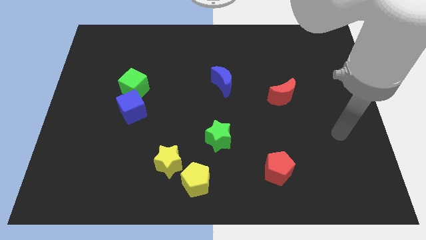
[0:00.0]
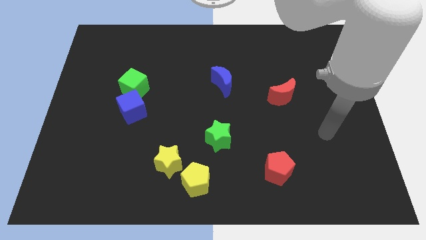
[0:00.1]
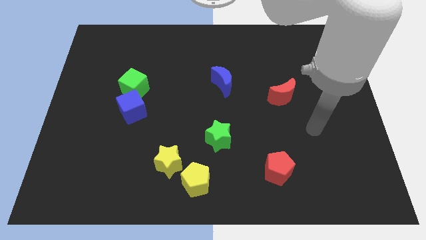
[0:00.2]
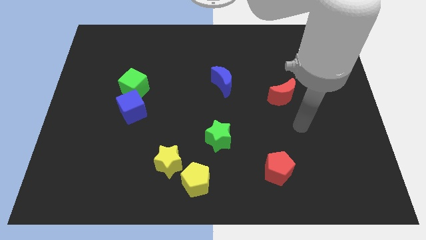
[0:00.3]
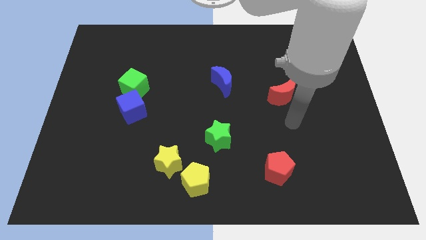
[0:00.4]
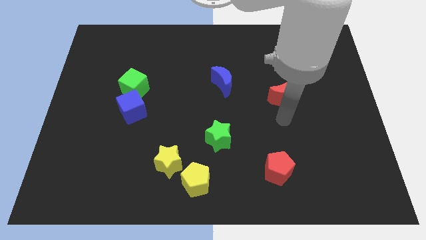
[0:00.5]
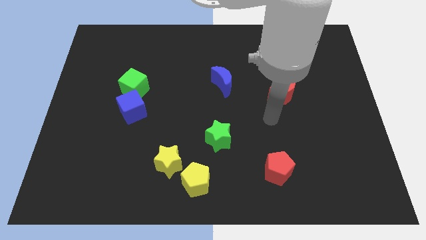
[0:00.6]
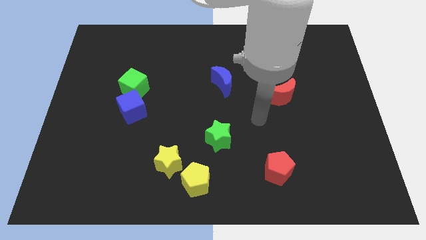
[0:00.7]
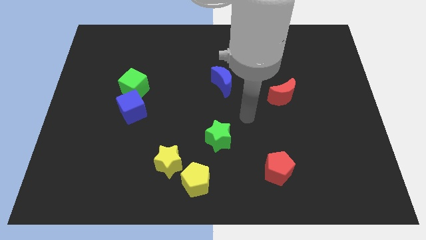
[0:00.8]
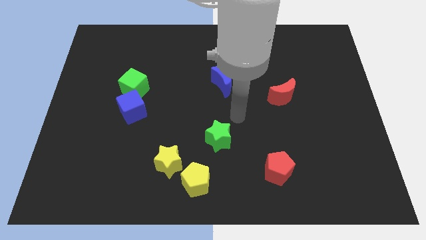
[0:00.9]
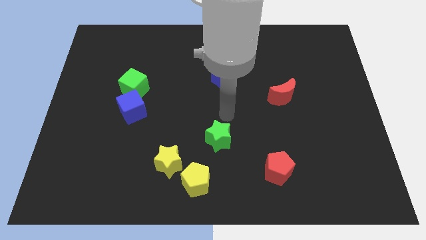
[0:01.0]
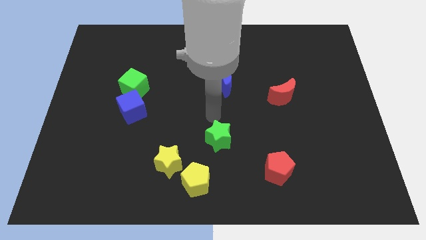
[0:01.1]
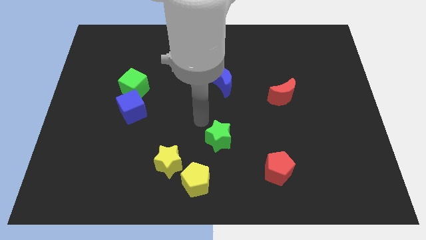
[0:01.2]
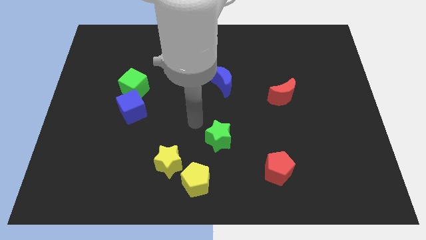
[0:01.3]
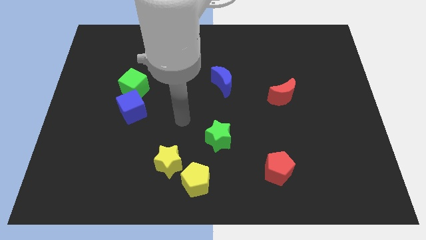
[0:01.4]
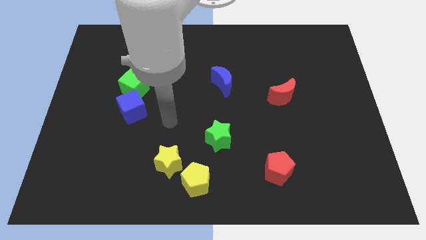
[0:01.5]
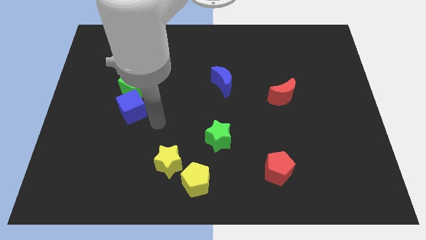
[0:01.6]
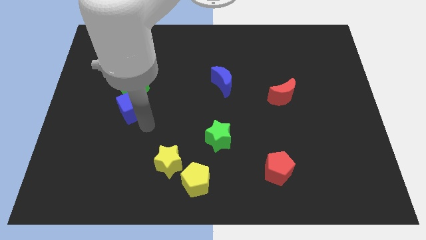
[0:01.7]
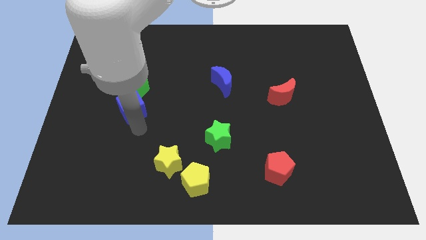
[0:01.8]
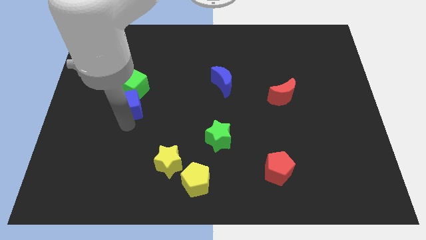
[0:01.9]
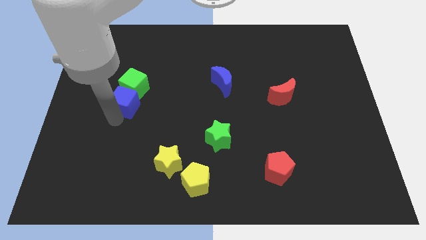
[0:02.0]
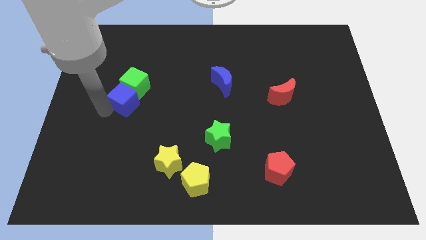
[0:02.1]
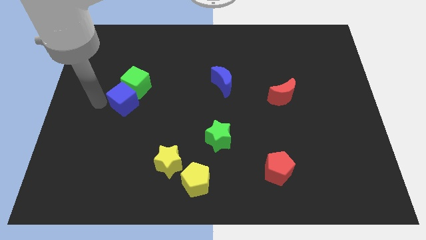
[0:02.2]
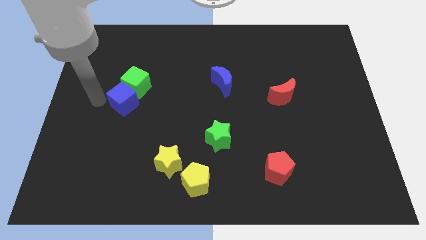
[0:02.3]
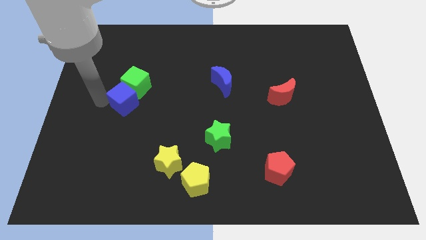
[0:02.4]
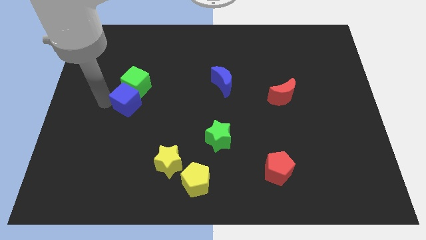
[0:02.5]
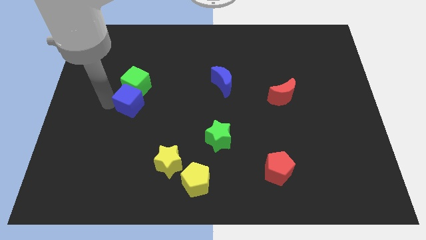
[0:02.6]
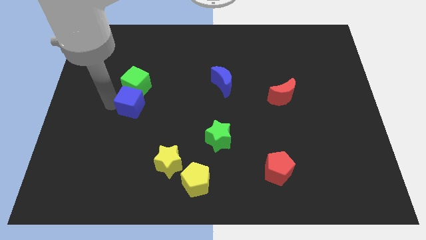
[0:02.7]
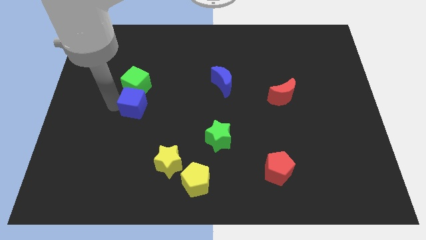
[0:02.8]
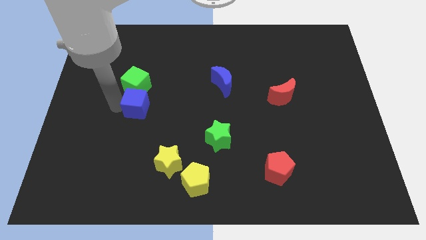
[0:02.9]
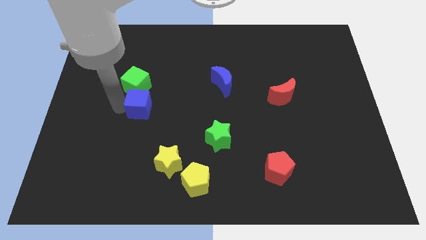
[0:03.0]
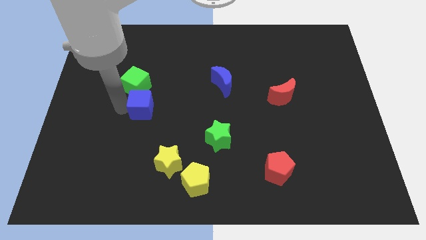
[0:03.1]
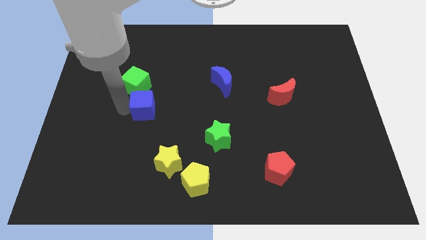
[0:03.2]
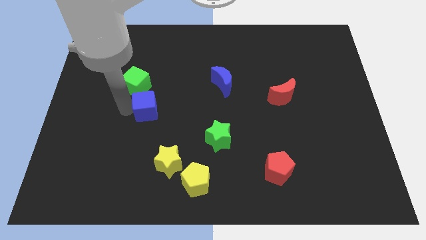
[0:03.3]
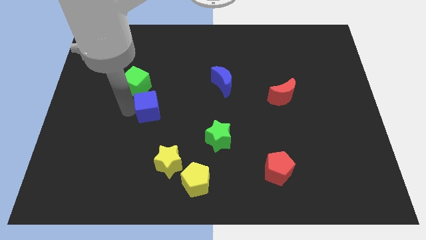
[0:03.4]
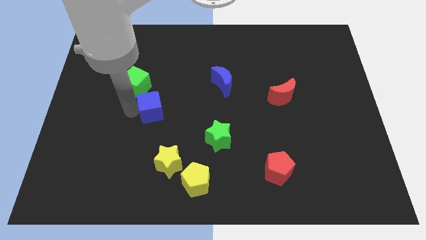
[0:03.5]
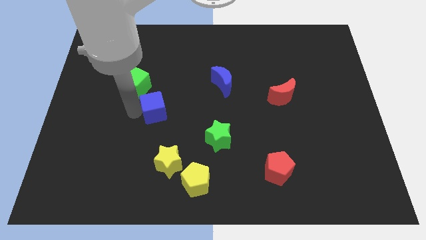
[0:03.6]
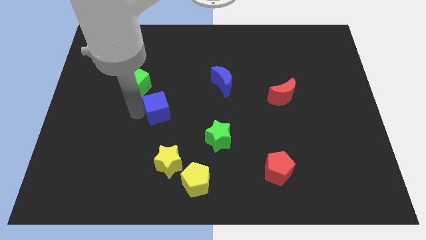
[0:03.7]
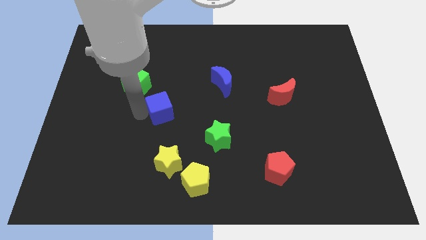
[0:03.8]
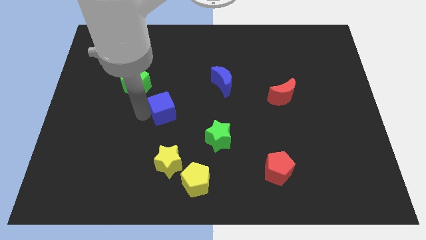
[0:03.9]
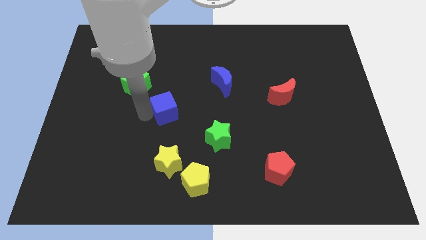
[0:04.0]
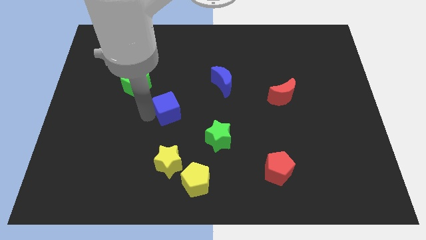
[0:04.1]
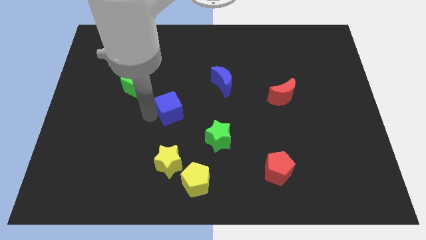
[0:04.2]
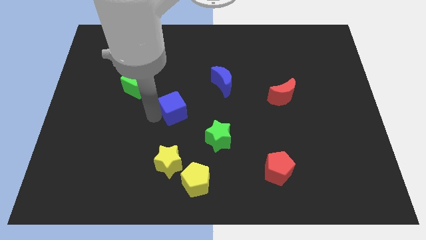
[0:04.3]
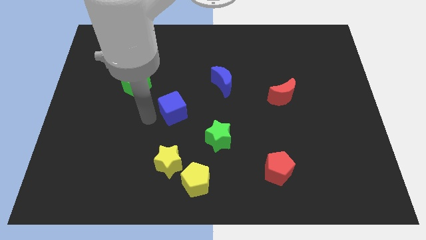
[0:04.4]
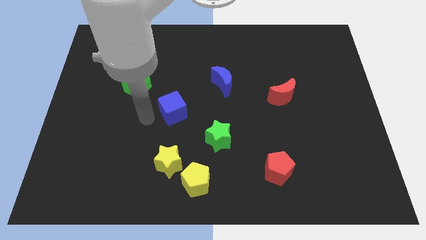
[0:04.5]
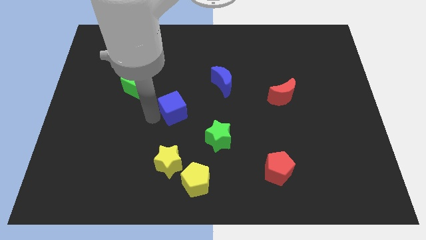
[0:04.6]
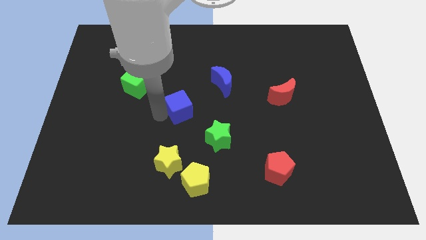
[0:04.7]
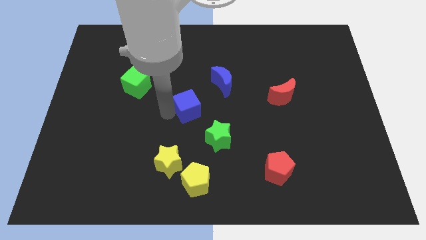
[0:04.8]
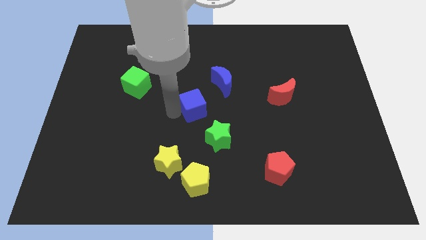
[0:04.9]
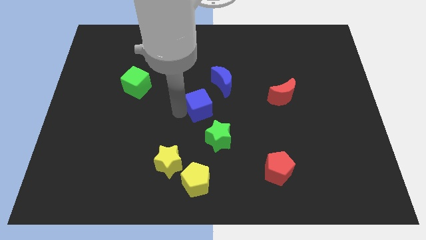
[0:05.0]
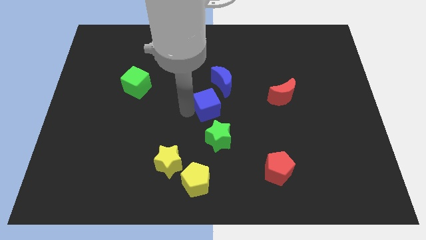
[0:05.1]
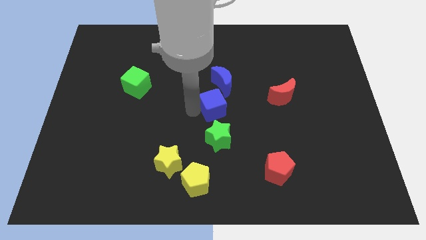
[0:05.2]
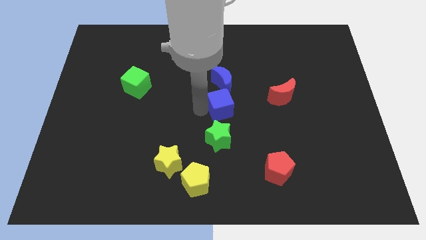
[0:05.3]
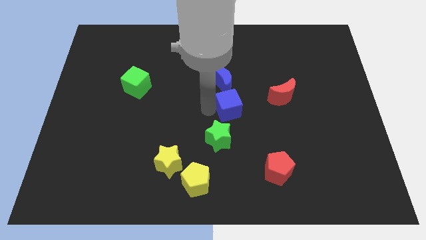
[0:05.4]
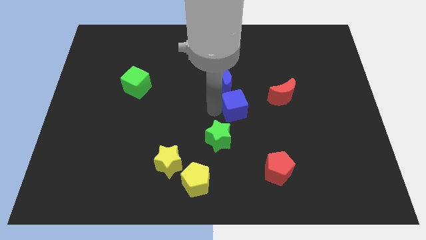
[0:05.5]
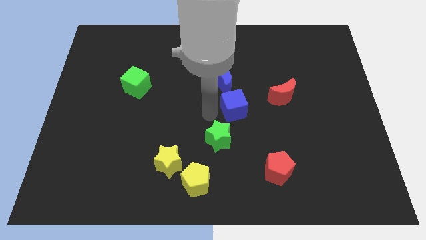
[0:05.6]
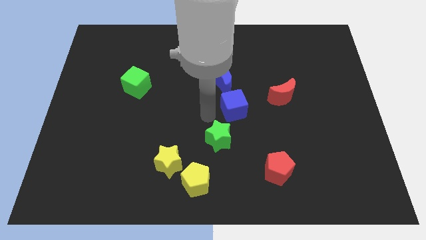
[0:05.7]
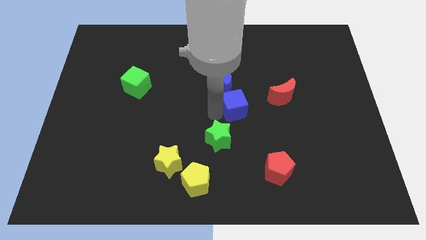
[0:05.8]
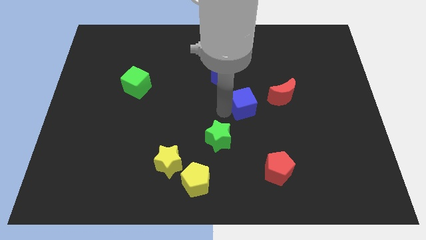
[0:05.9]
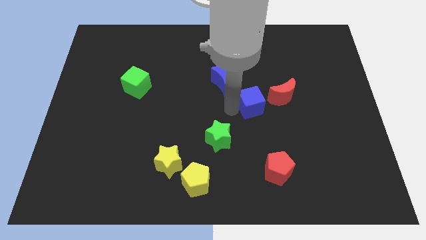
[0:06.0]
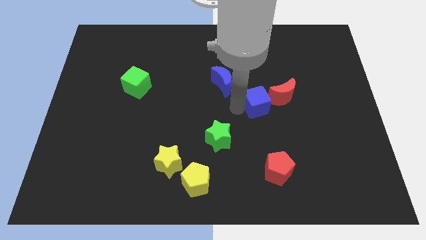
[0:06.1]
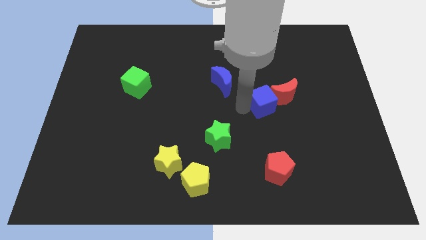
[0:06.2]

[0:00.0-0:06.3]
put the blue cube close to the red moon

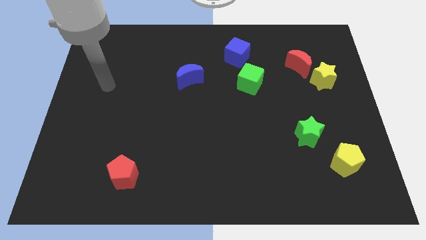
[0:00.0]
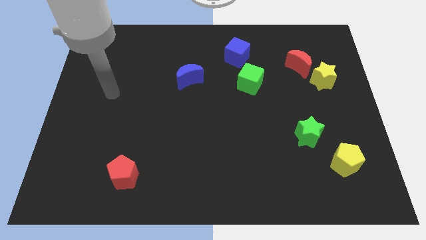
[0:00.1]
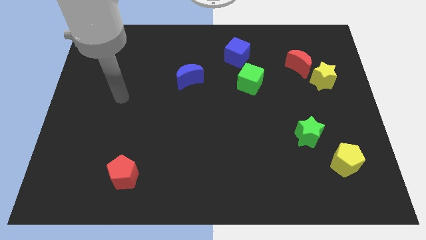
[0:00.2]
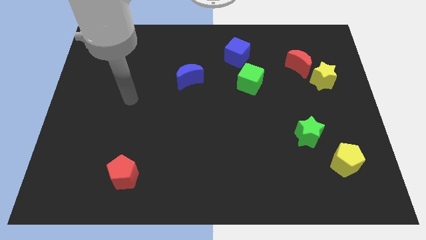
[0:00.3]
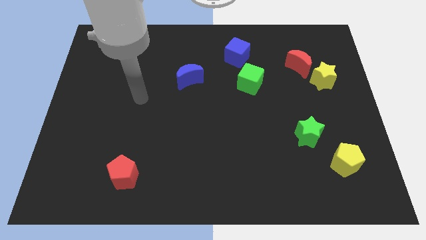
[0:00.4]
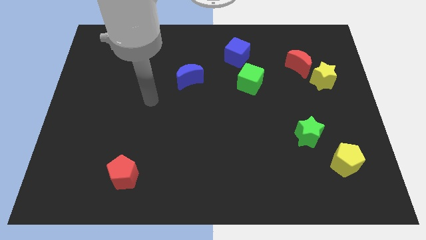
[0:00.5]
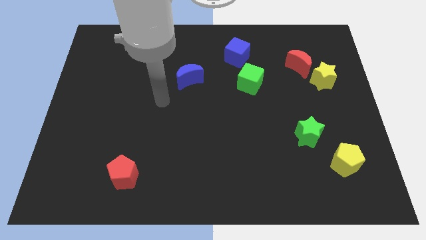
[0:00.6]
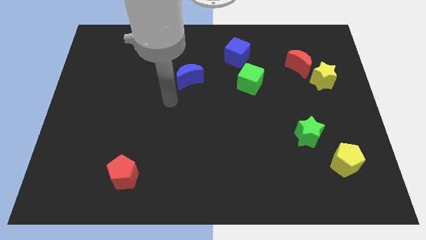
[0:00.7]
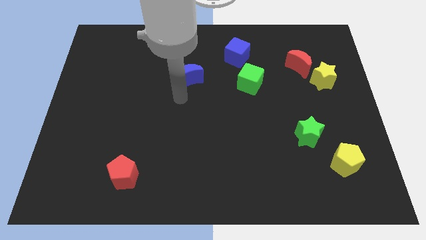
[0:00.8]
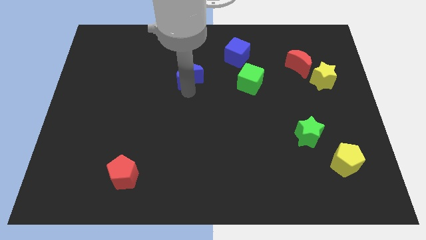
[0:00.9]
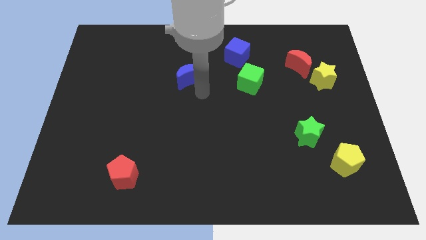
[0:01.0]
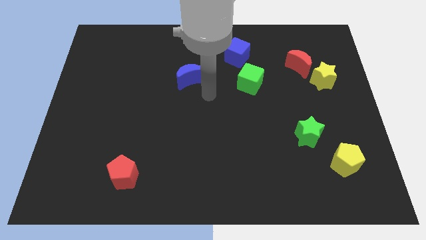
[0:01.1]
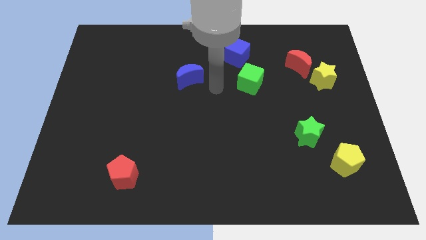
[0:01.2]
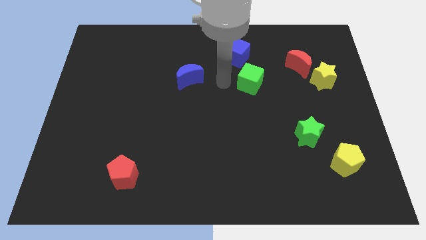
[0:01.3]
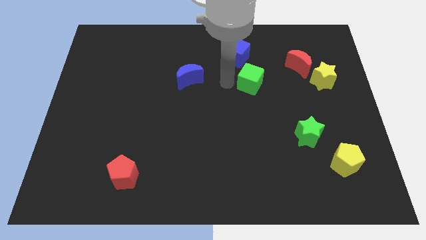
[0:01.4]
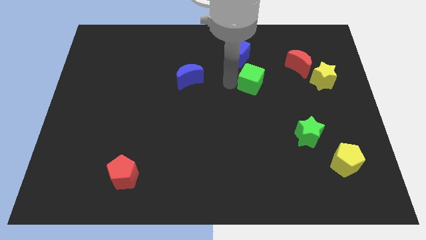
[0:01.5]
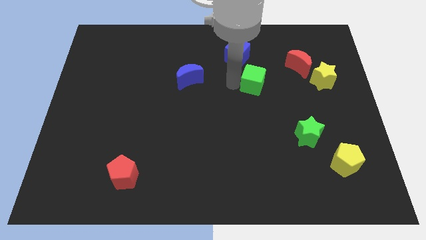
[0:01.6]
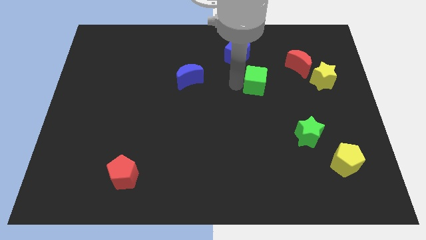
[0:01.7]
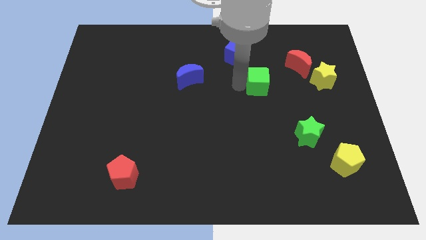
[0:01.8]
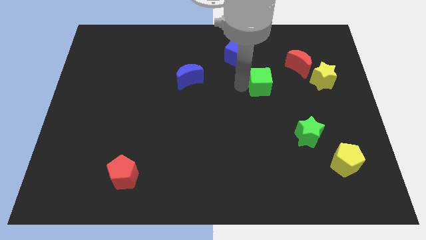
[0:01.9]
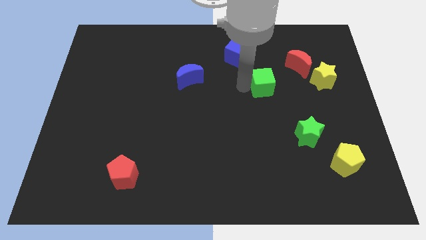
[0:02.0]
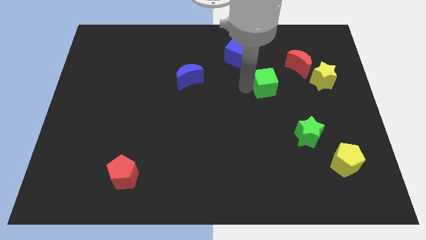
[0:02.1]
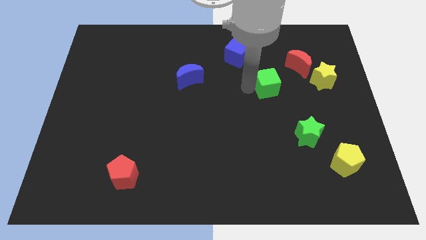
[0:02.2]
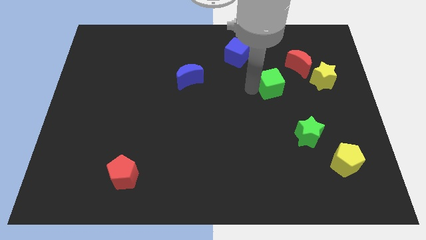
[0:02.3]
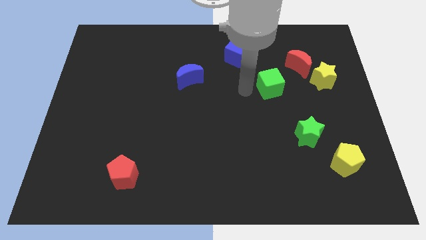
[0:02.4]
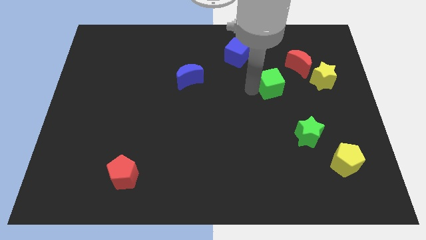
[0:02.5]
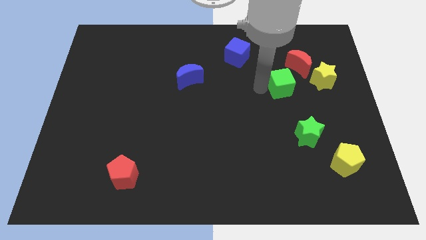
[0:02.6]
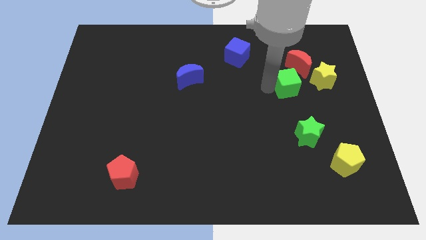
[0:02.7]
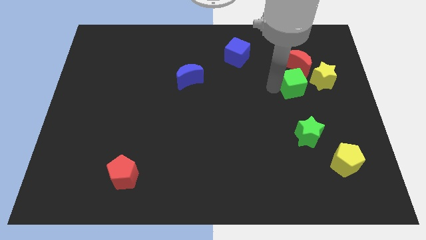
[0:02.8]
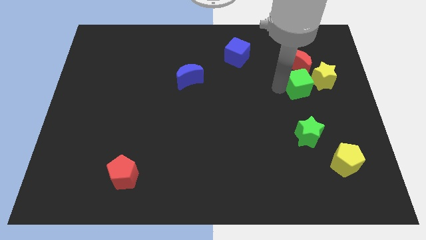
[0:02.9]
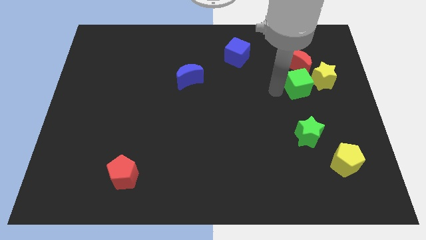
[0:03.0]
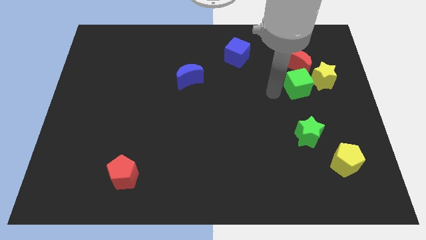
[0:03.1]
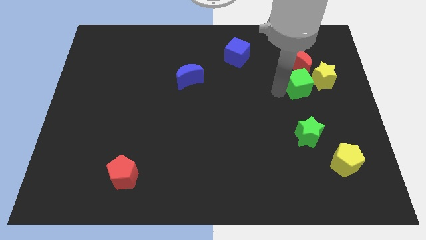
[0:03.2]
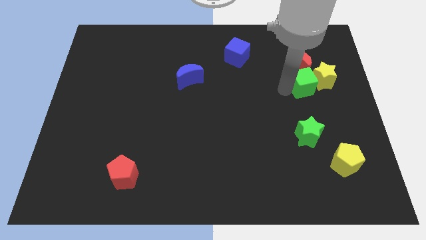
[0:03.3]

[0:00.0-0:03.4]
push the green cube next to the yellow star
